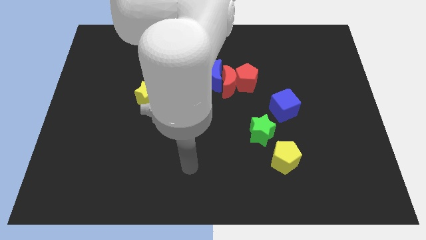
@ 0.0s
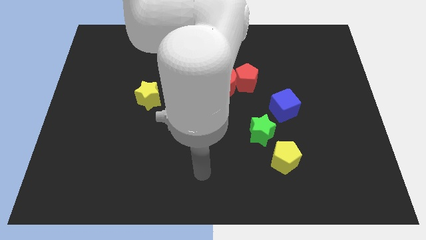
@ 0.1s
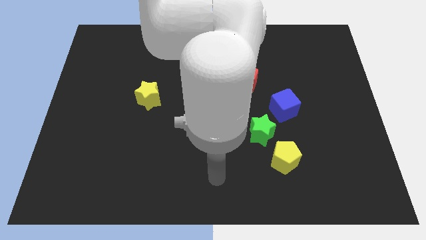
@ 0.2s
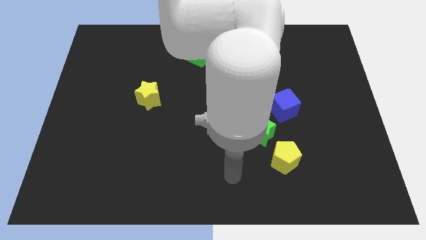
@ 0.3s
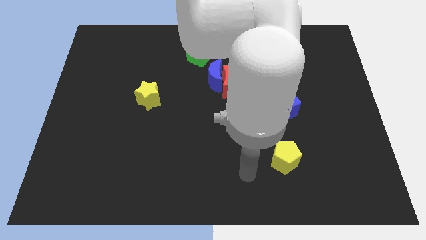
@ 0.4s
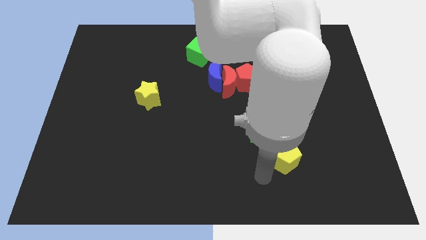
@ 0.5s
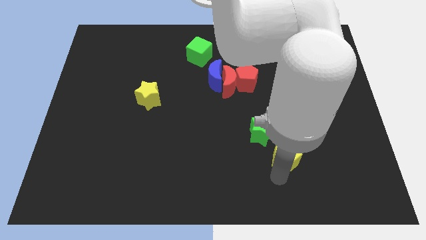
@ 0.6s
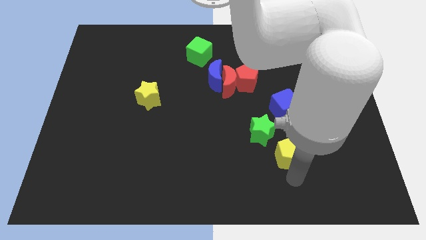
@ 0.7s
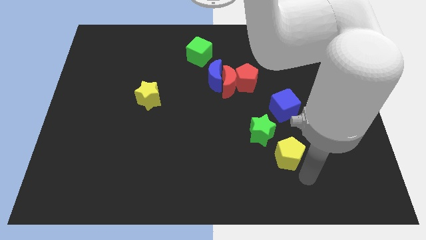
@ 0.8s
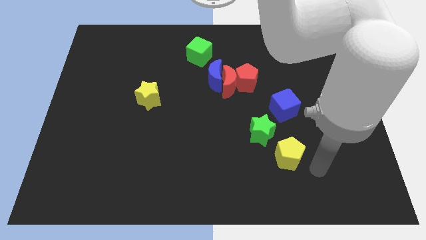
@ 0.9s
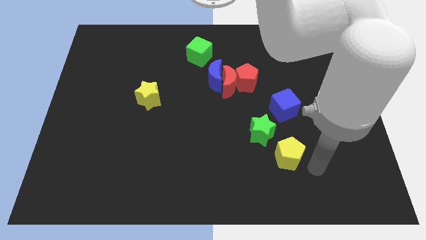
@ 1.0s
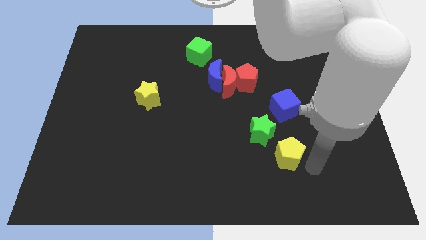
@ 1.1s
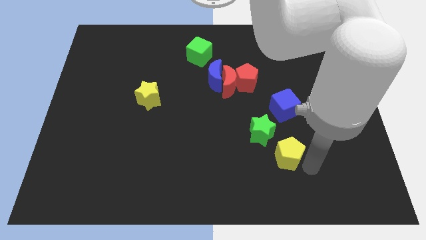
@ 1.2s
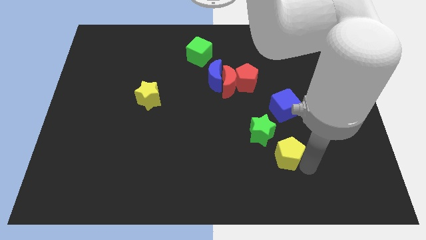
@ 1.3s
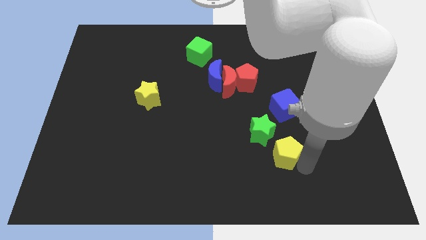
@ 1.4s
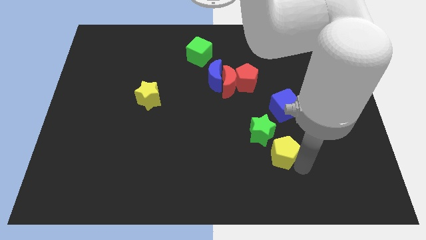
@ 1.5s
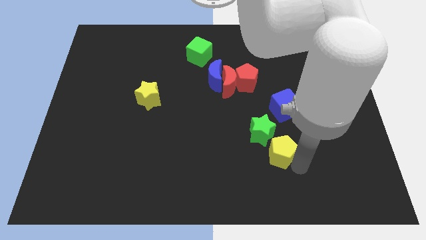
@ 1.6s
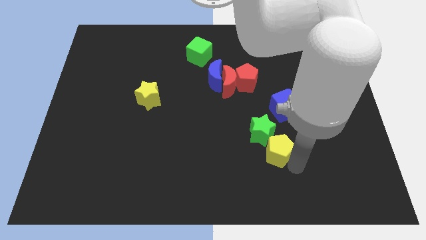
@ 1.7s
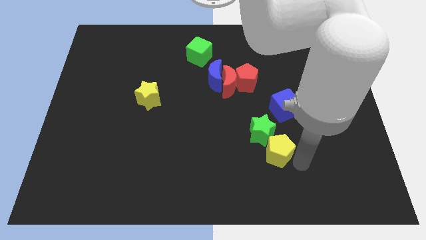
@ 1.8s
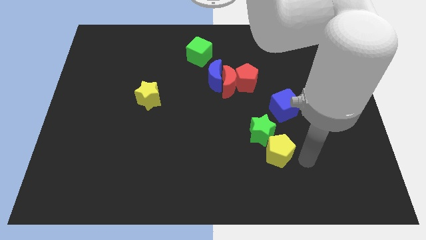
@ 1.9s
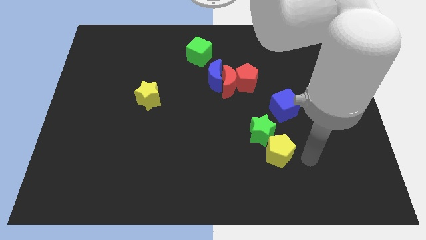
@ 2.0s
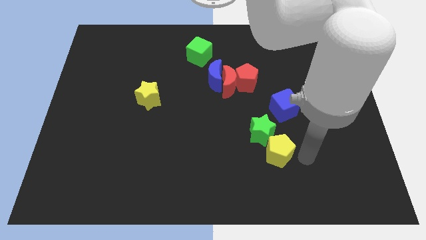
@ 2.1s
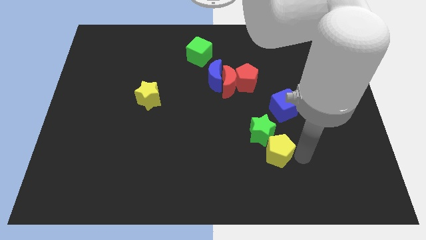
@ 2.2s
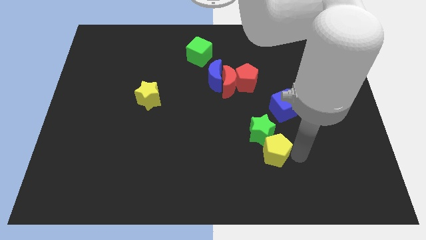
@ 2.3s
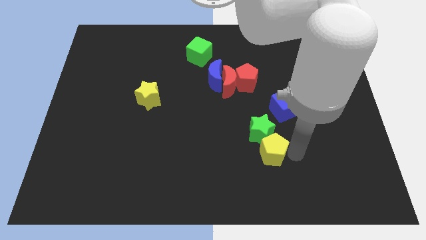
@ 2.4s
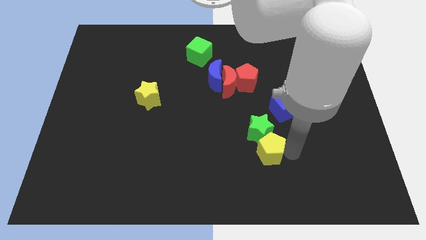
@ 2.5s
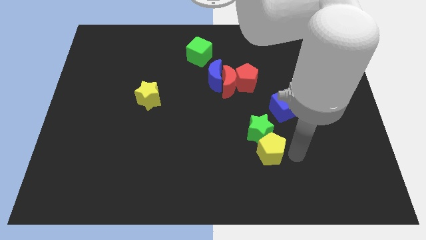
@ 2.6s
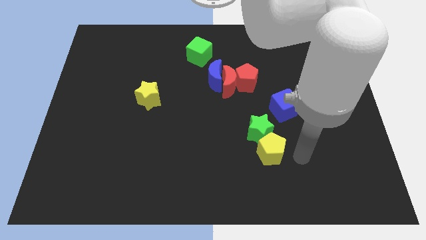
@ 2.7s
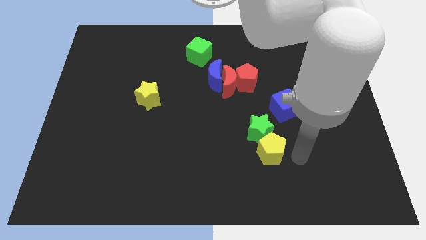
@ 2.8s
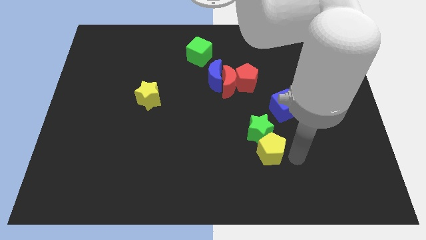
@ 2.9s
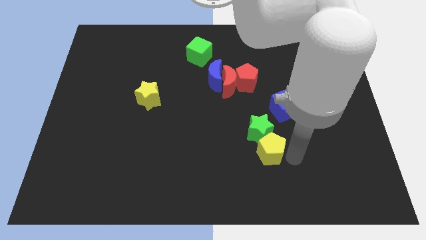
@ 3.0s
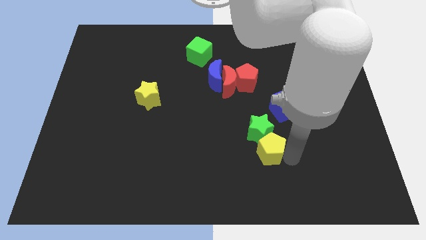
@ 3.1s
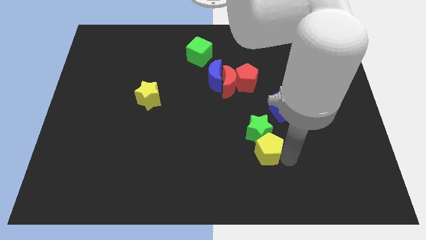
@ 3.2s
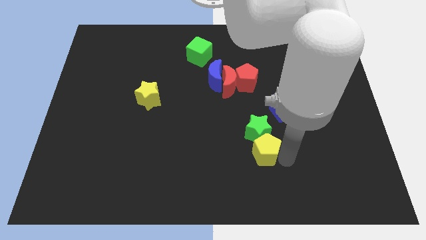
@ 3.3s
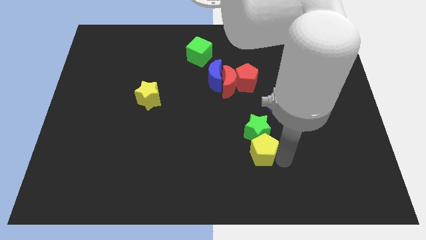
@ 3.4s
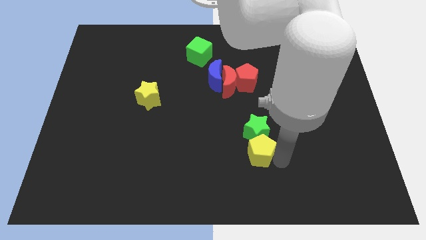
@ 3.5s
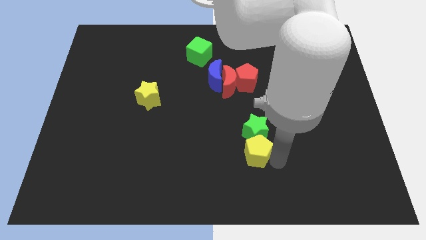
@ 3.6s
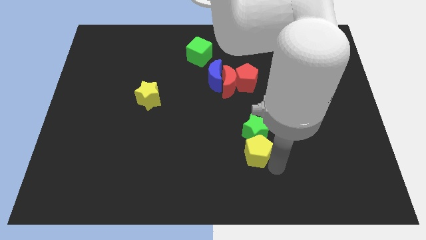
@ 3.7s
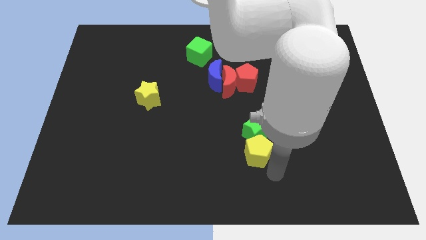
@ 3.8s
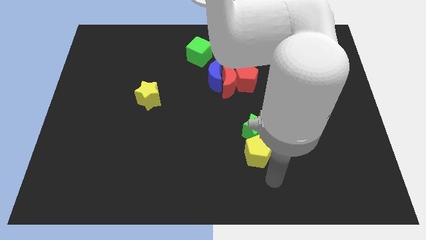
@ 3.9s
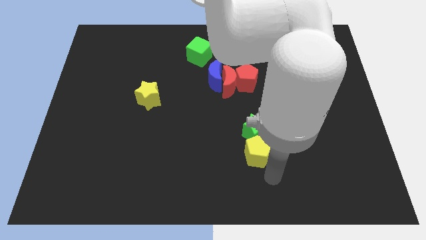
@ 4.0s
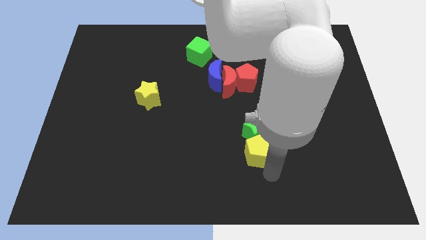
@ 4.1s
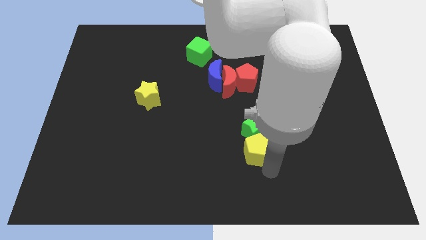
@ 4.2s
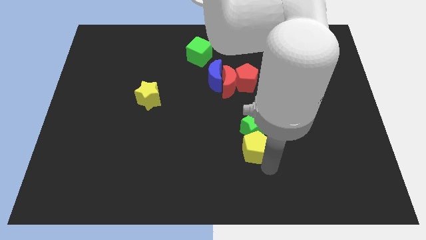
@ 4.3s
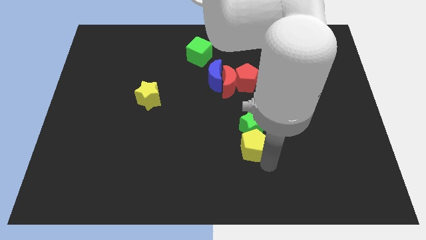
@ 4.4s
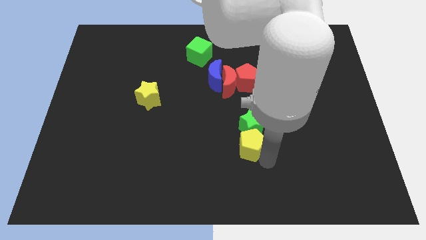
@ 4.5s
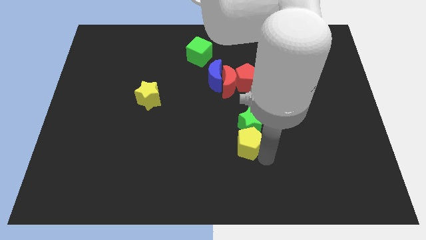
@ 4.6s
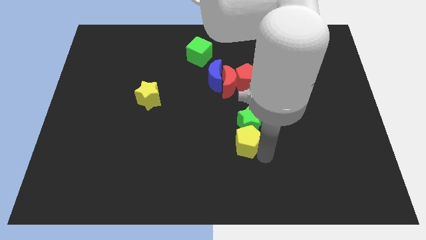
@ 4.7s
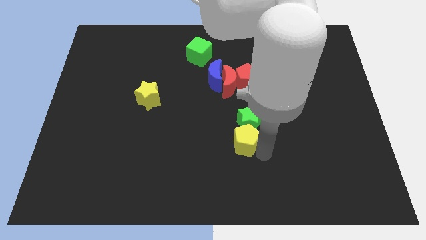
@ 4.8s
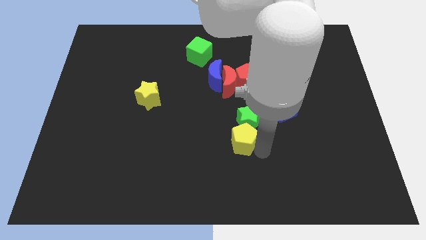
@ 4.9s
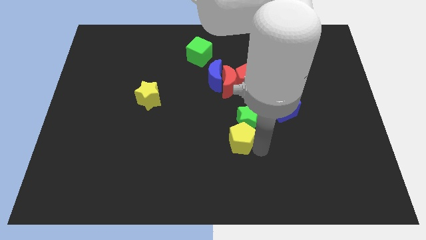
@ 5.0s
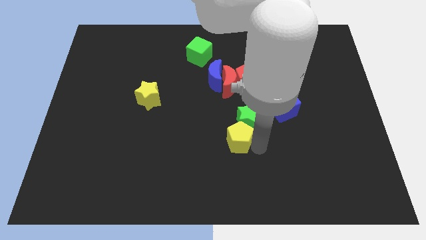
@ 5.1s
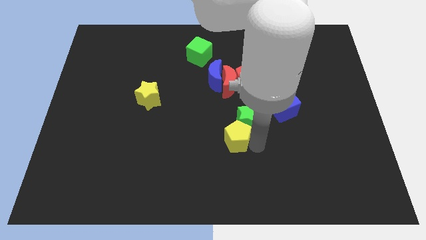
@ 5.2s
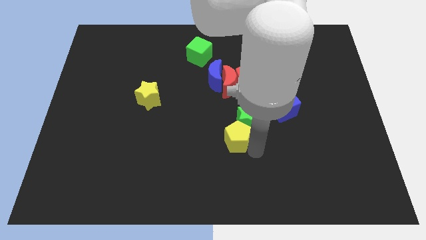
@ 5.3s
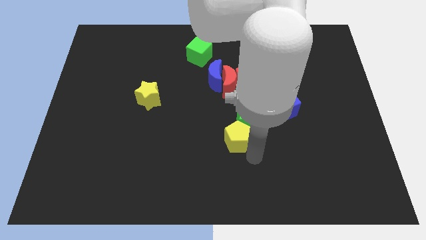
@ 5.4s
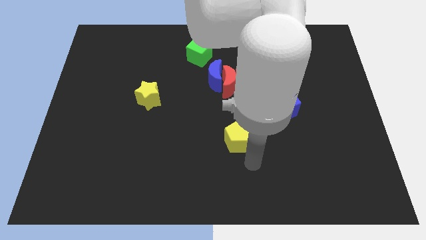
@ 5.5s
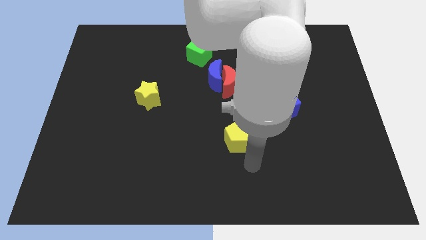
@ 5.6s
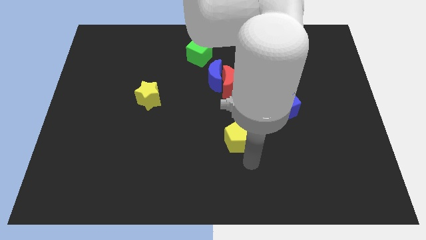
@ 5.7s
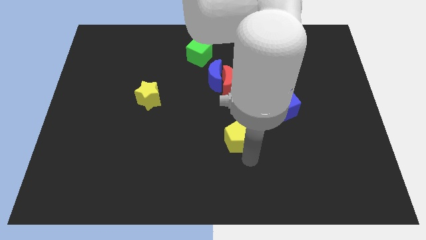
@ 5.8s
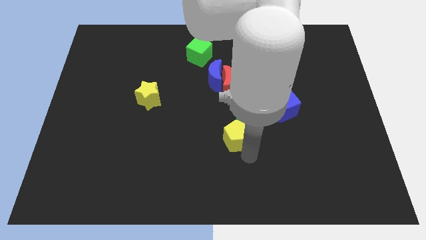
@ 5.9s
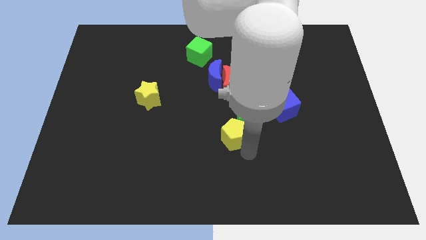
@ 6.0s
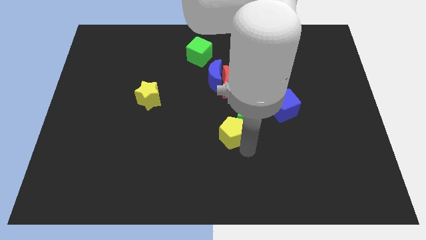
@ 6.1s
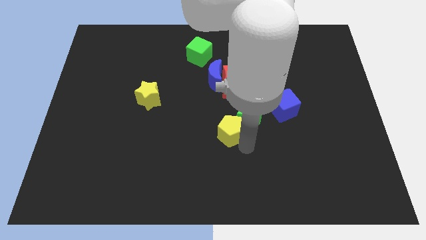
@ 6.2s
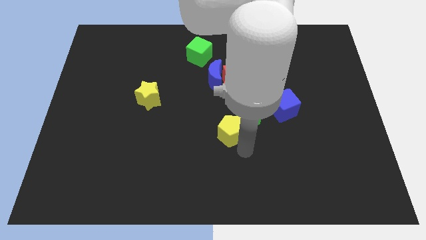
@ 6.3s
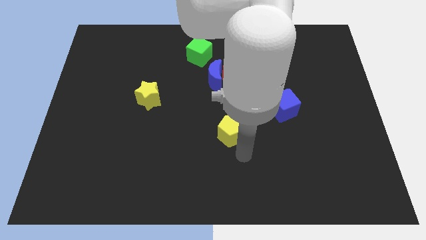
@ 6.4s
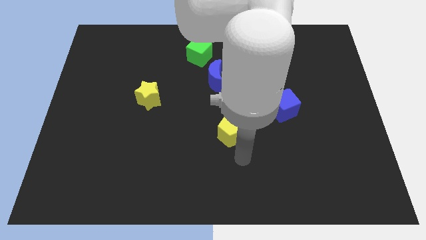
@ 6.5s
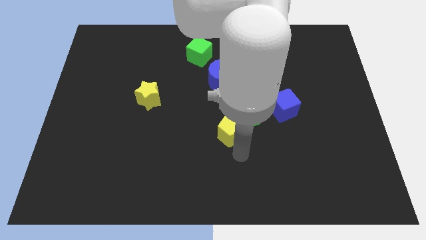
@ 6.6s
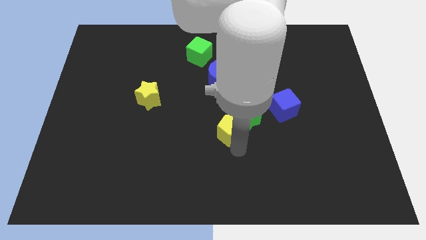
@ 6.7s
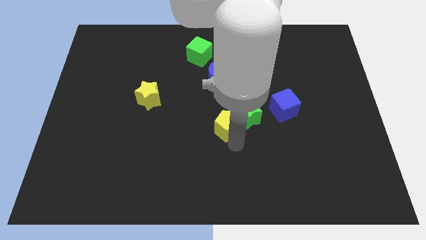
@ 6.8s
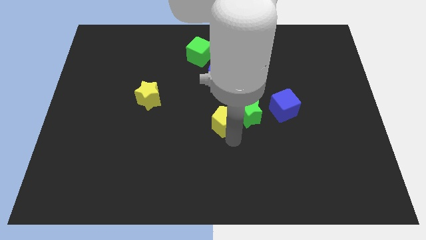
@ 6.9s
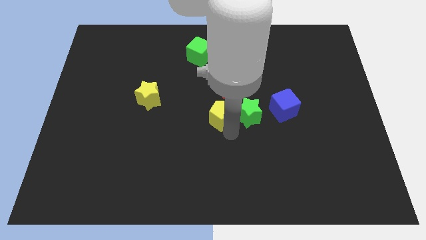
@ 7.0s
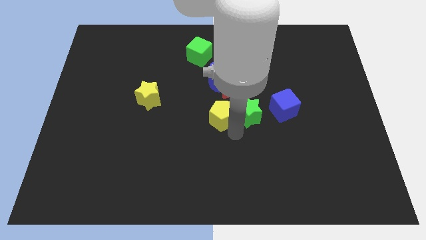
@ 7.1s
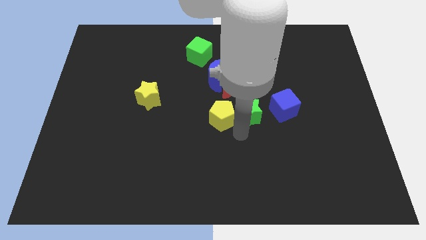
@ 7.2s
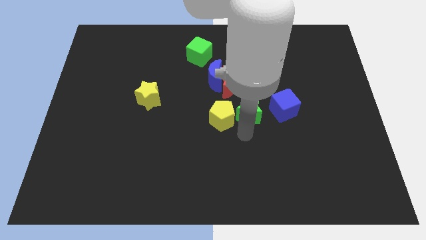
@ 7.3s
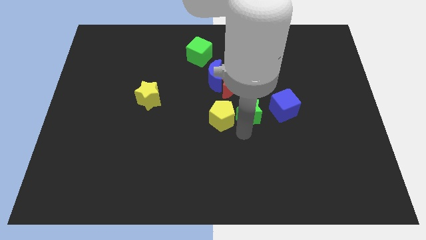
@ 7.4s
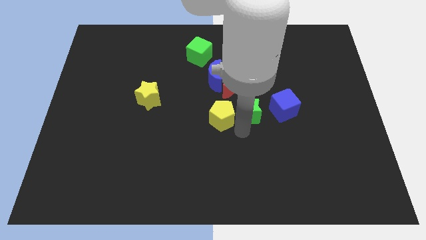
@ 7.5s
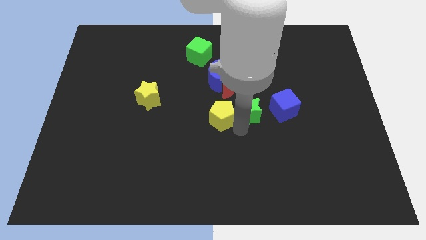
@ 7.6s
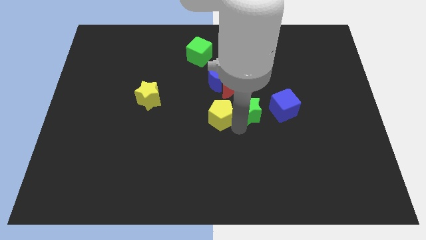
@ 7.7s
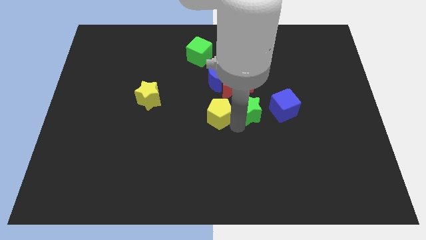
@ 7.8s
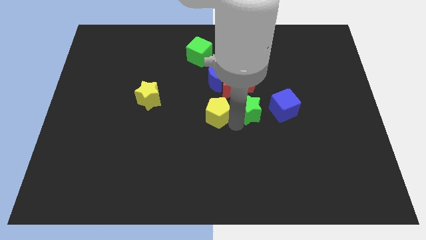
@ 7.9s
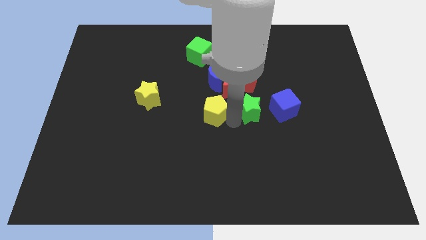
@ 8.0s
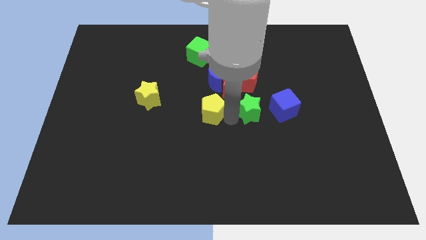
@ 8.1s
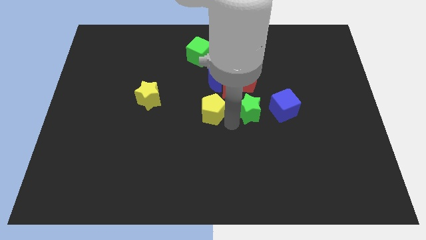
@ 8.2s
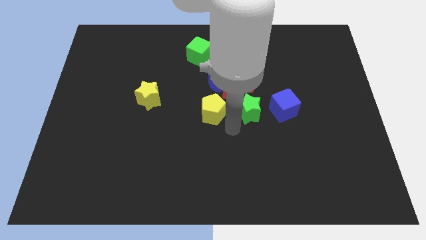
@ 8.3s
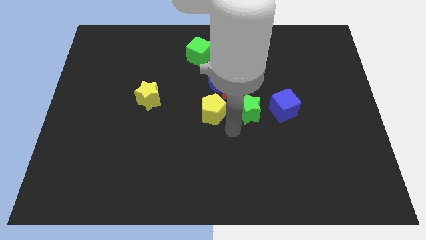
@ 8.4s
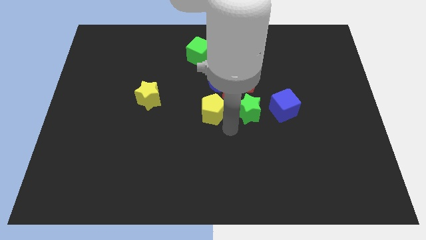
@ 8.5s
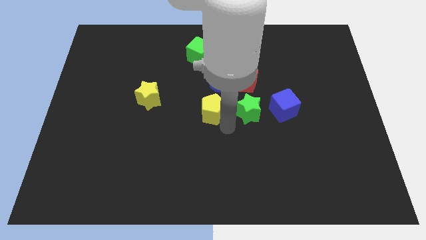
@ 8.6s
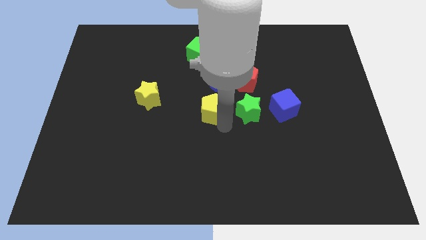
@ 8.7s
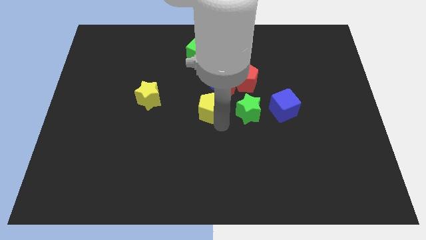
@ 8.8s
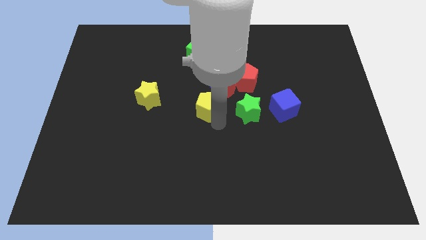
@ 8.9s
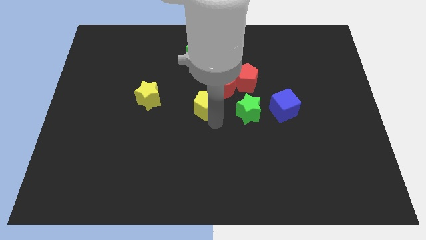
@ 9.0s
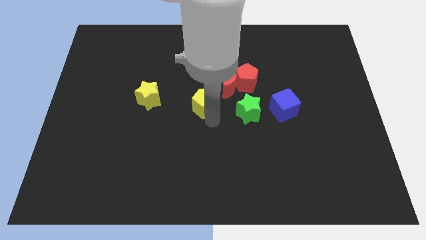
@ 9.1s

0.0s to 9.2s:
push the yellow pentagon to the bottom left of the blue moon
